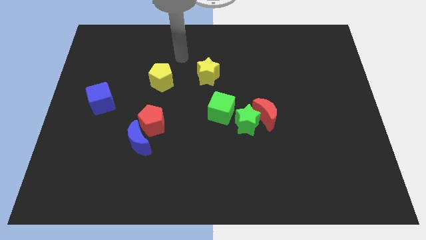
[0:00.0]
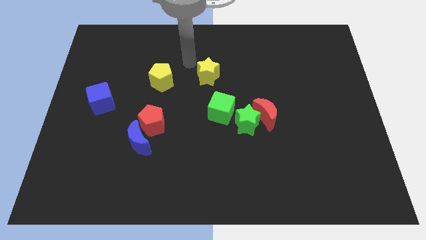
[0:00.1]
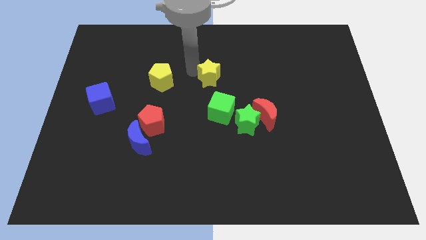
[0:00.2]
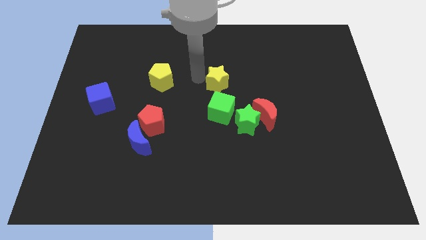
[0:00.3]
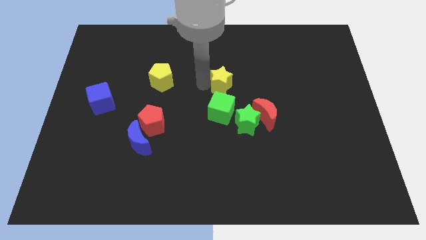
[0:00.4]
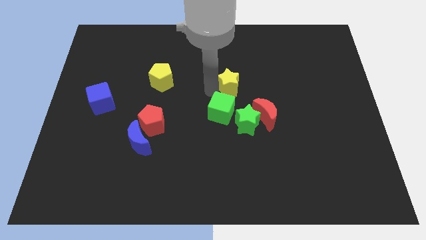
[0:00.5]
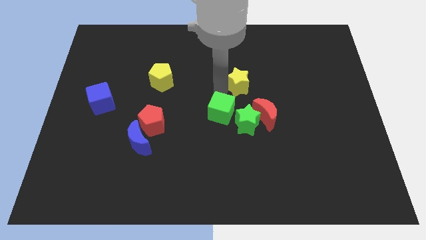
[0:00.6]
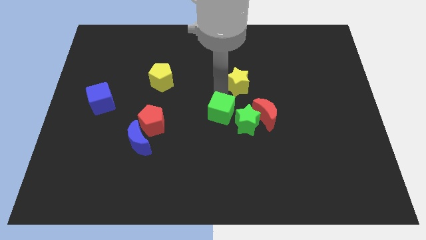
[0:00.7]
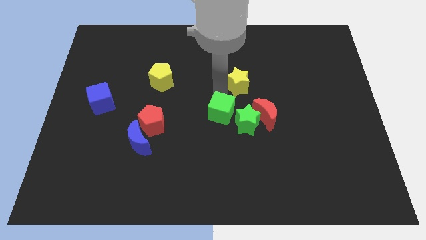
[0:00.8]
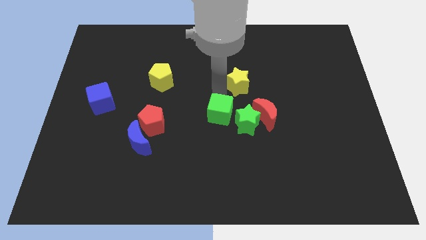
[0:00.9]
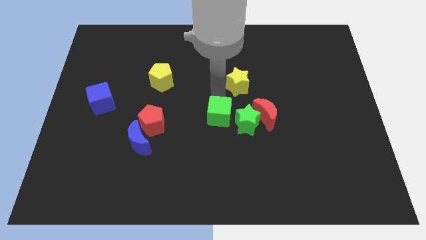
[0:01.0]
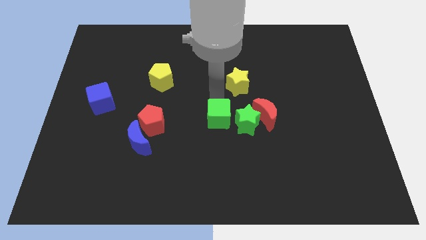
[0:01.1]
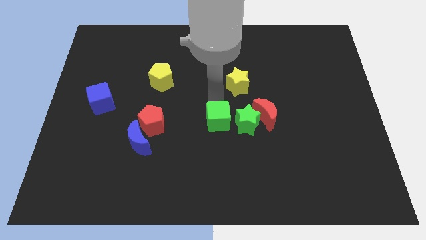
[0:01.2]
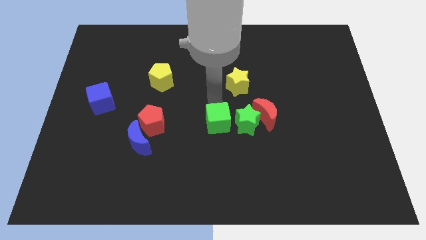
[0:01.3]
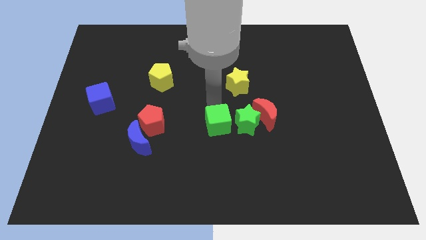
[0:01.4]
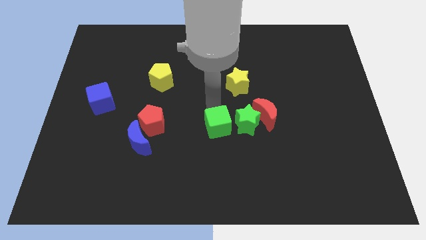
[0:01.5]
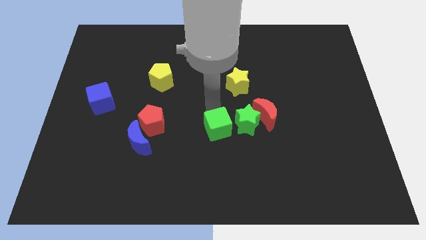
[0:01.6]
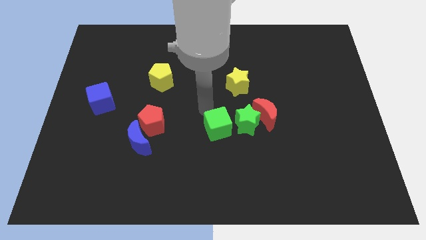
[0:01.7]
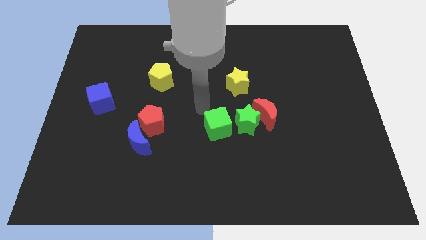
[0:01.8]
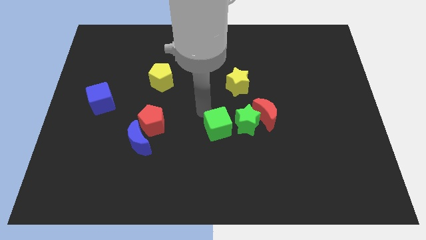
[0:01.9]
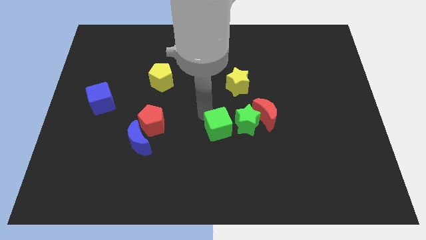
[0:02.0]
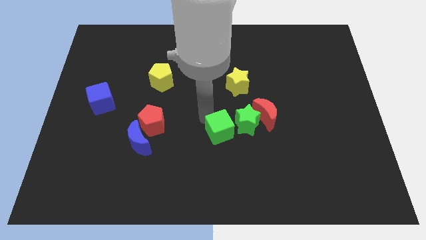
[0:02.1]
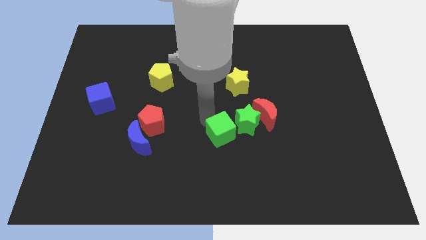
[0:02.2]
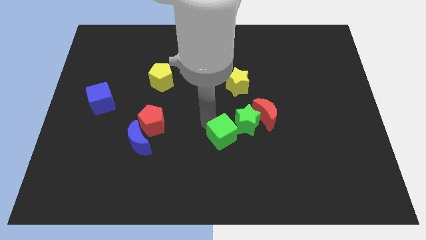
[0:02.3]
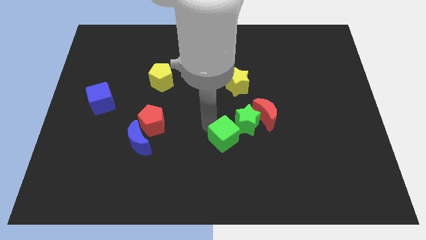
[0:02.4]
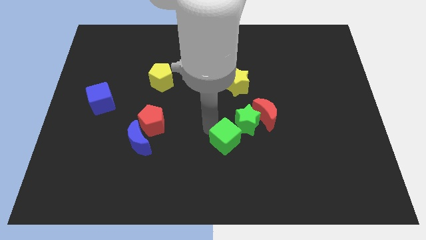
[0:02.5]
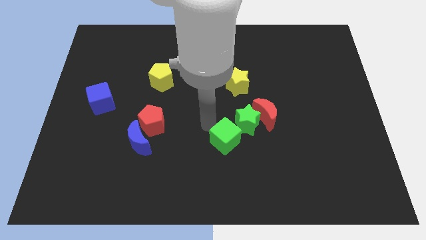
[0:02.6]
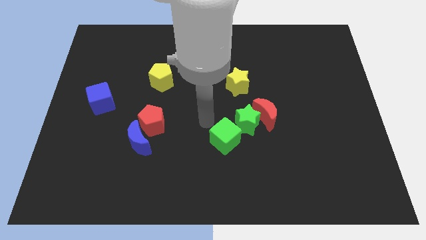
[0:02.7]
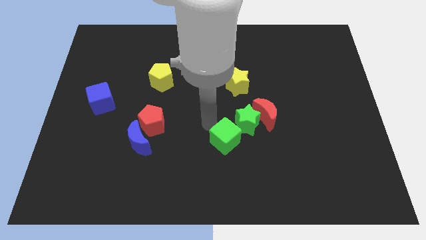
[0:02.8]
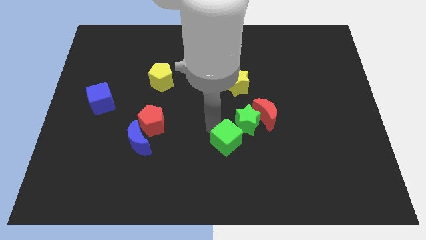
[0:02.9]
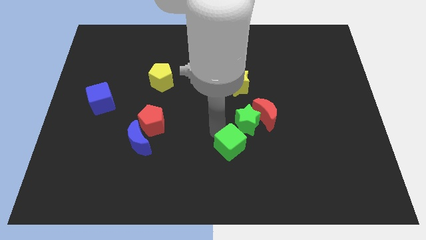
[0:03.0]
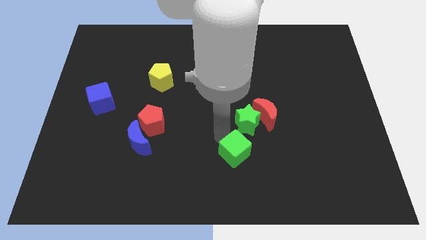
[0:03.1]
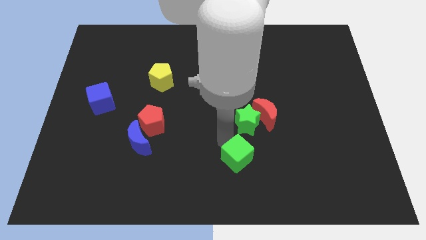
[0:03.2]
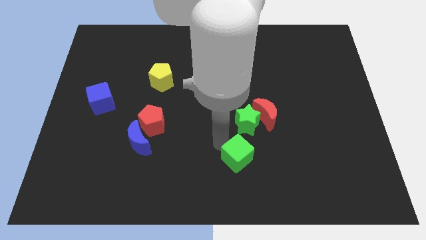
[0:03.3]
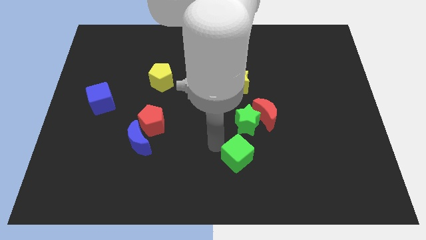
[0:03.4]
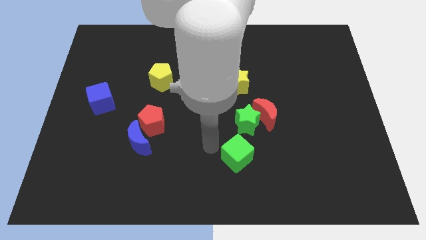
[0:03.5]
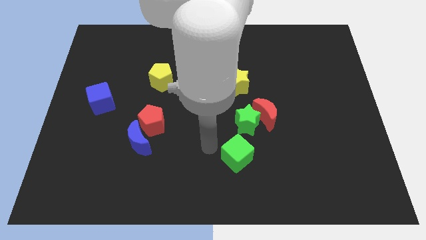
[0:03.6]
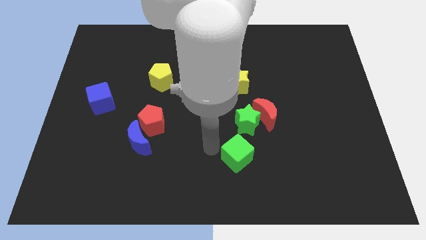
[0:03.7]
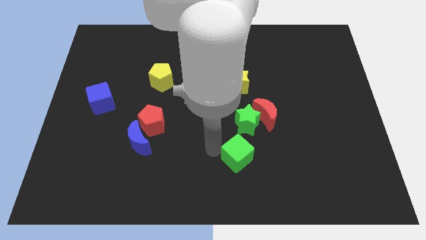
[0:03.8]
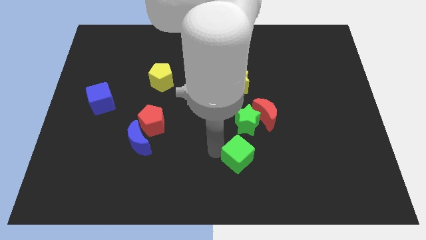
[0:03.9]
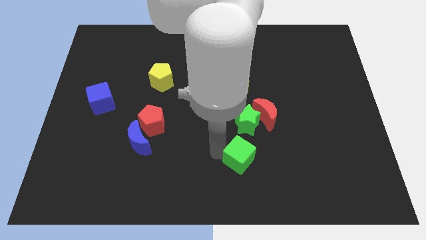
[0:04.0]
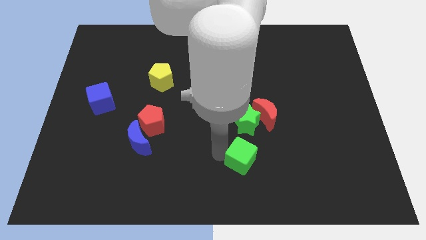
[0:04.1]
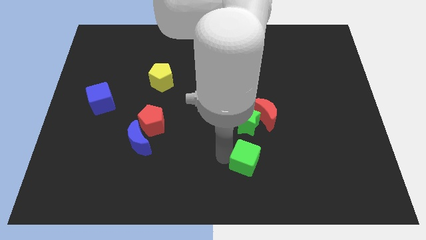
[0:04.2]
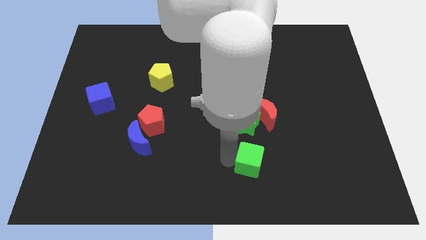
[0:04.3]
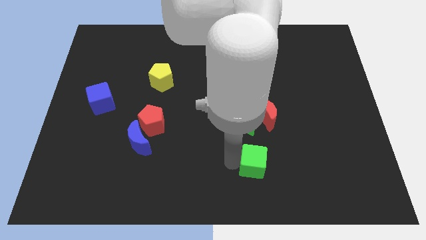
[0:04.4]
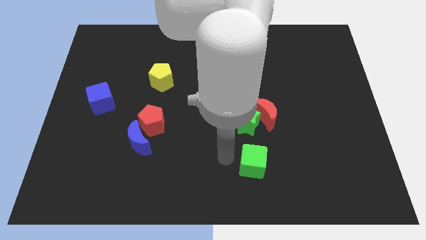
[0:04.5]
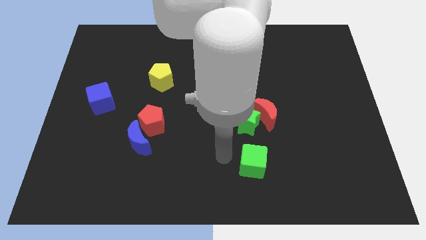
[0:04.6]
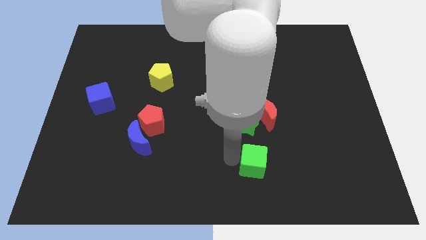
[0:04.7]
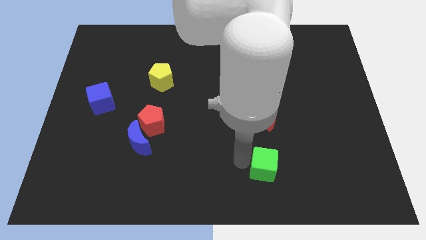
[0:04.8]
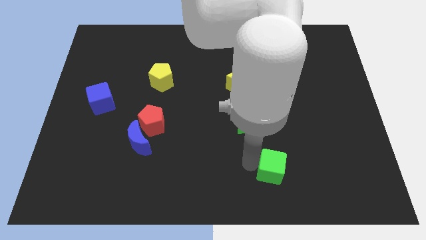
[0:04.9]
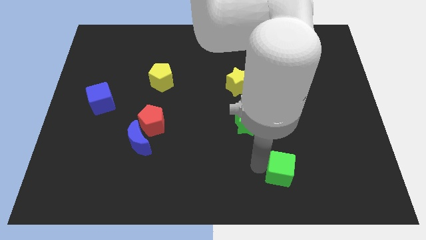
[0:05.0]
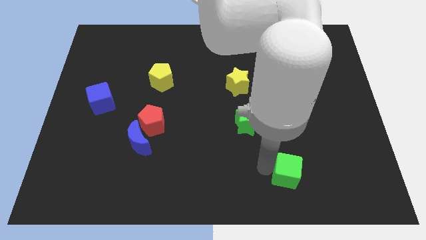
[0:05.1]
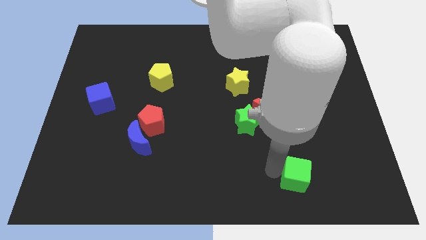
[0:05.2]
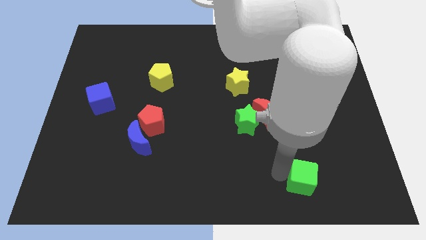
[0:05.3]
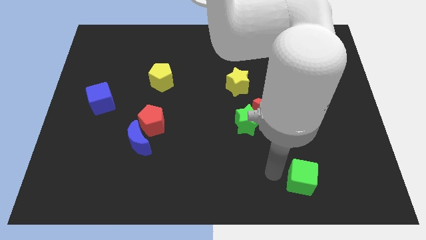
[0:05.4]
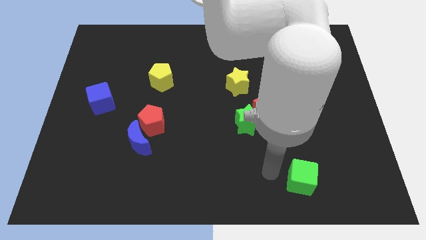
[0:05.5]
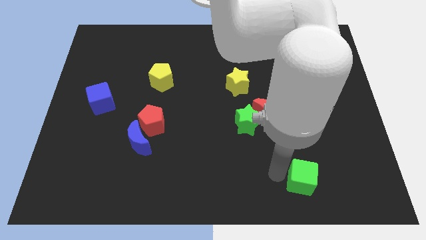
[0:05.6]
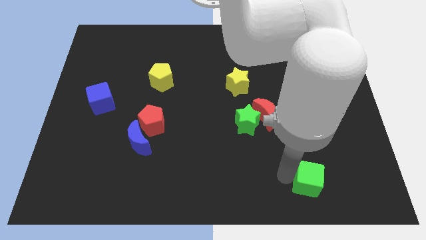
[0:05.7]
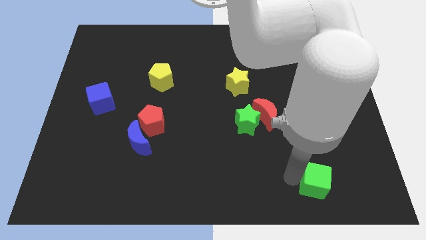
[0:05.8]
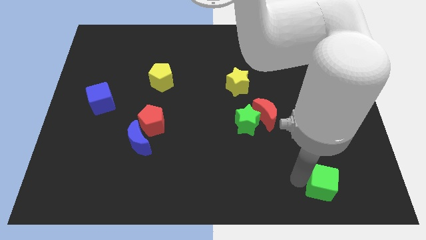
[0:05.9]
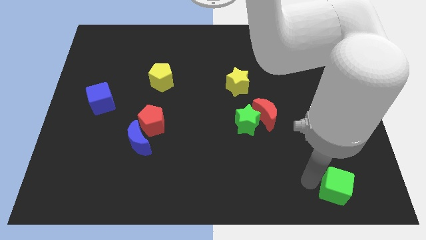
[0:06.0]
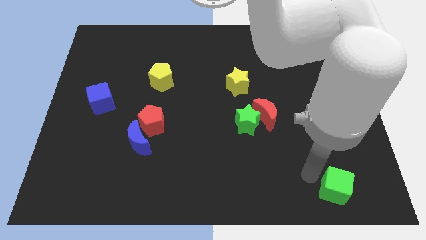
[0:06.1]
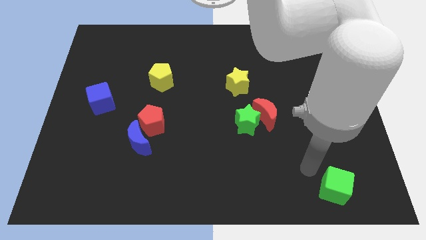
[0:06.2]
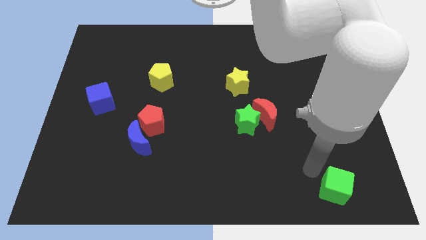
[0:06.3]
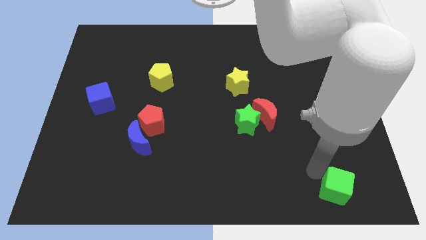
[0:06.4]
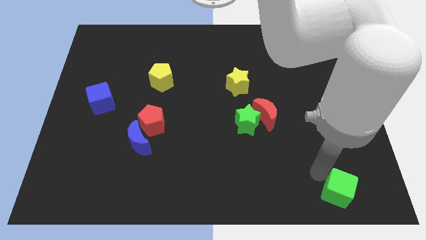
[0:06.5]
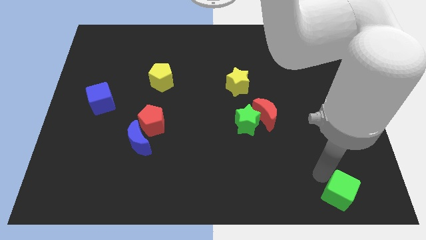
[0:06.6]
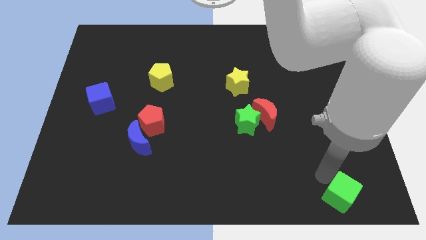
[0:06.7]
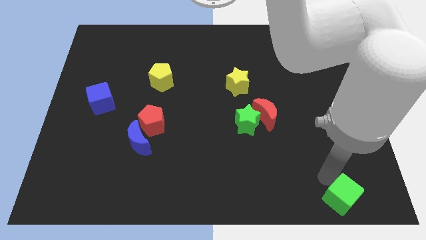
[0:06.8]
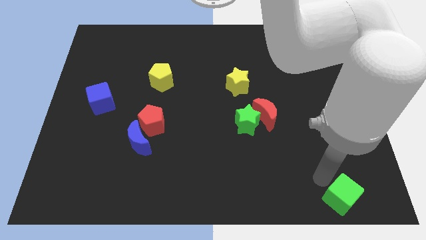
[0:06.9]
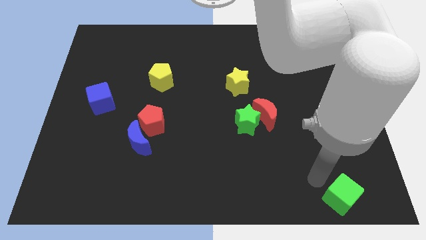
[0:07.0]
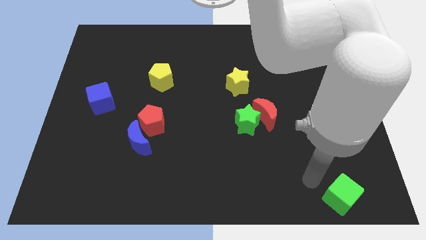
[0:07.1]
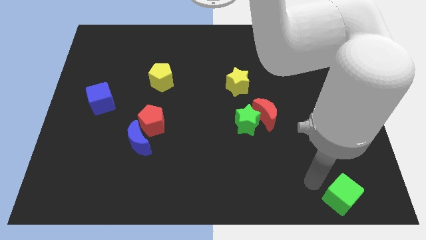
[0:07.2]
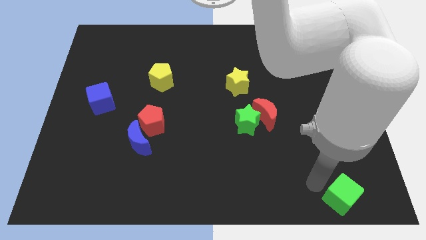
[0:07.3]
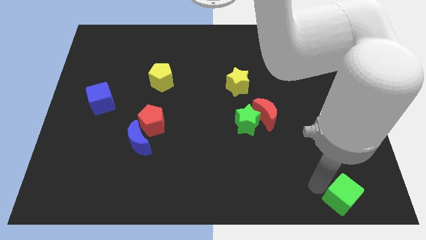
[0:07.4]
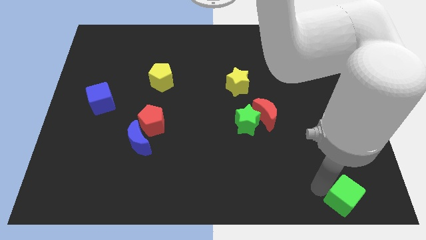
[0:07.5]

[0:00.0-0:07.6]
push the green cube to the bottom right of the board
